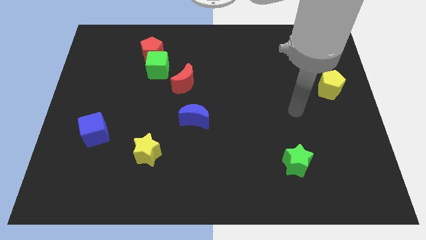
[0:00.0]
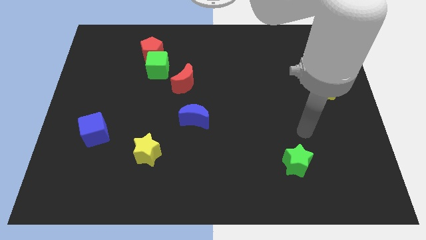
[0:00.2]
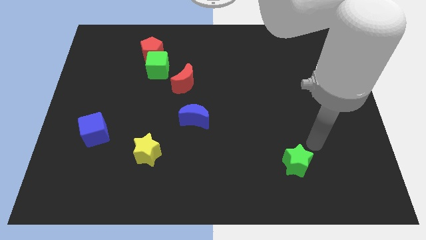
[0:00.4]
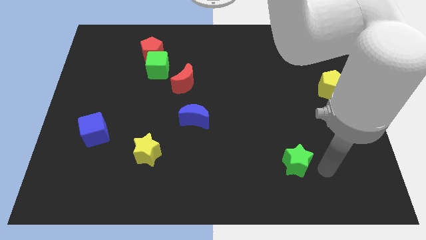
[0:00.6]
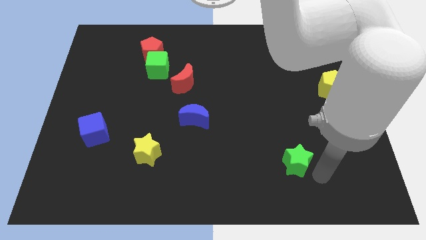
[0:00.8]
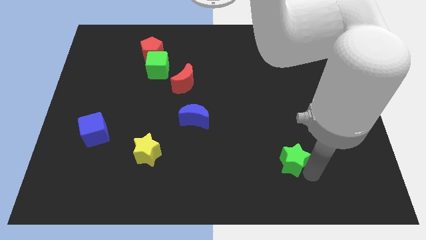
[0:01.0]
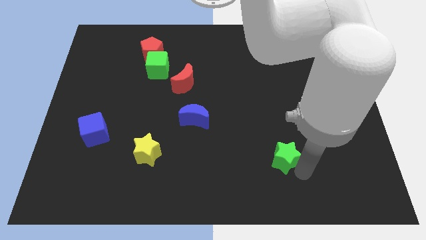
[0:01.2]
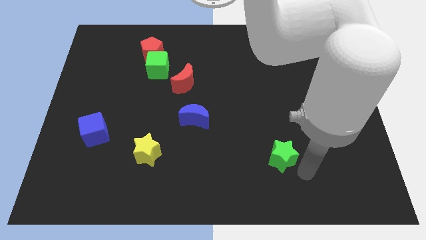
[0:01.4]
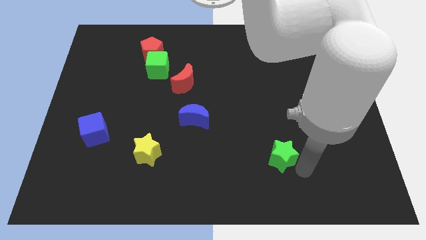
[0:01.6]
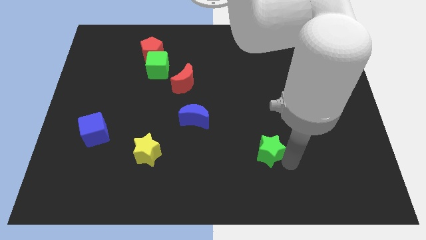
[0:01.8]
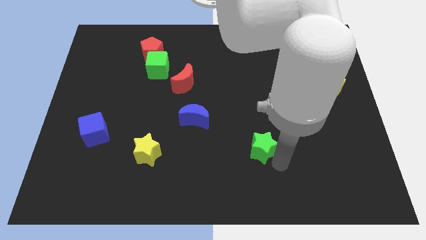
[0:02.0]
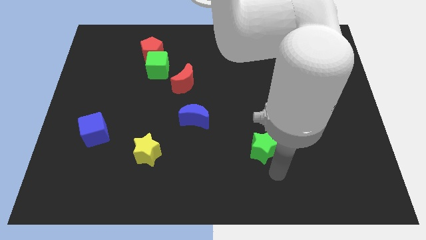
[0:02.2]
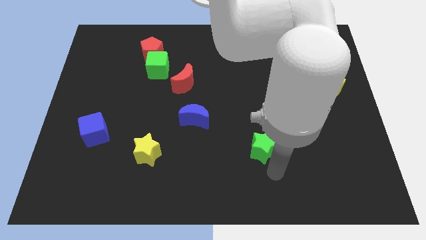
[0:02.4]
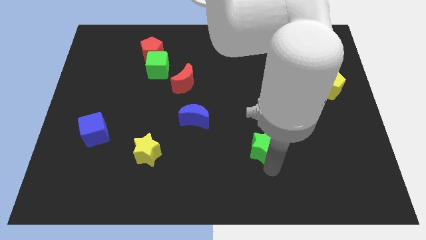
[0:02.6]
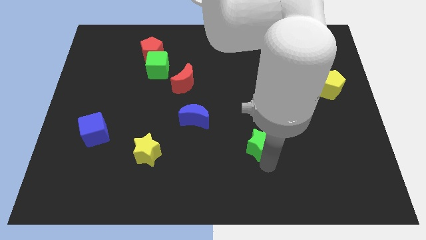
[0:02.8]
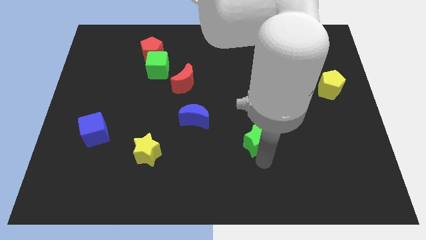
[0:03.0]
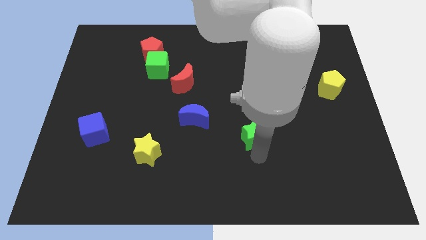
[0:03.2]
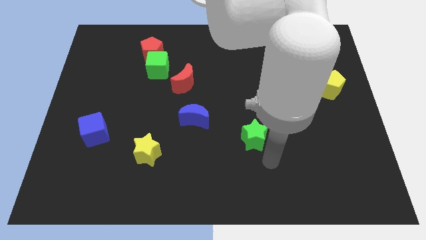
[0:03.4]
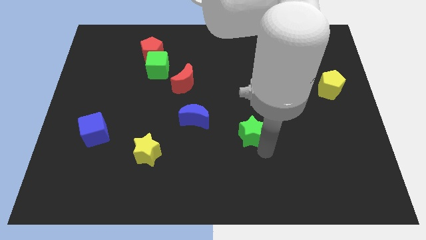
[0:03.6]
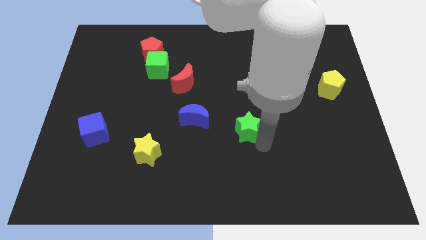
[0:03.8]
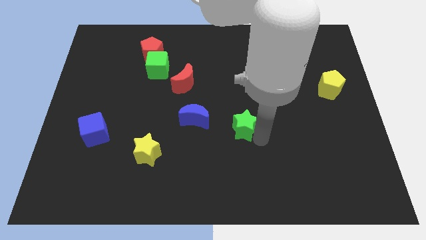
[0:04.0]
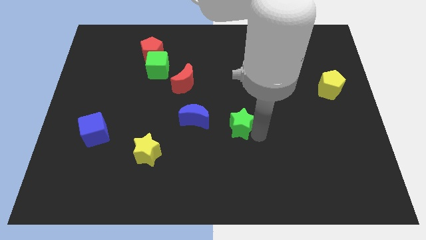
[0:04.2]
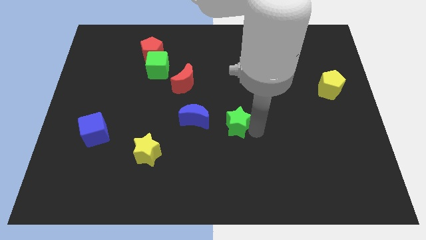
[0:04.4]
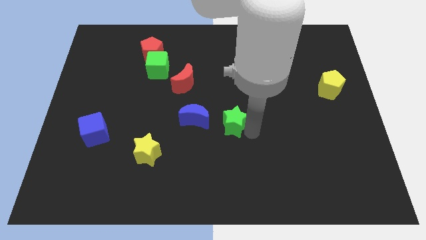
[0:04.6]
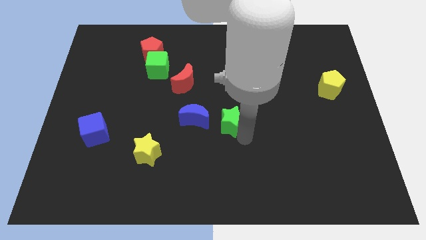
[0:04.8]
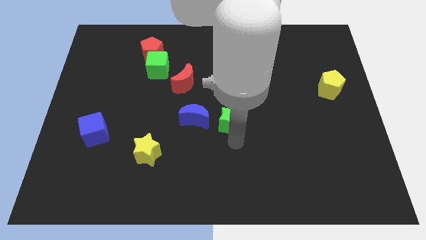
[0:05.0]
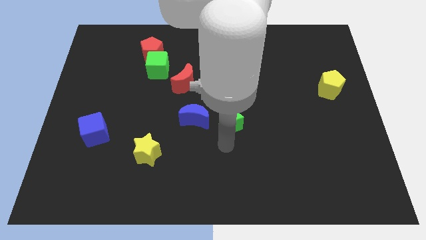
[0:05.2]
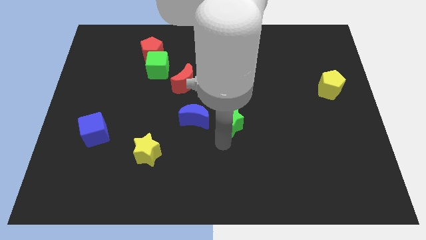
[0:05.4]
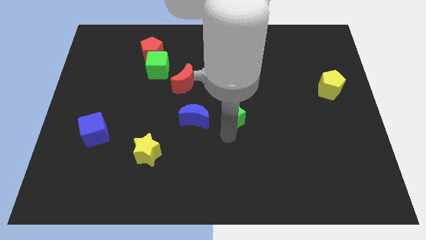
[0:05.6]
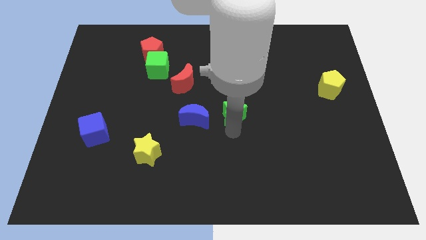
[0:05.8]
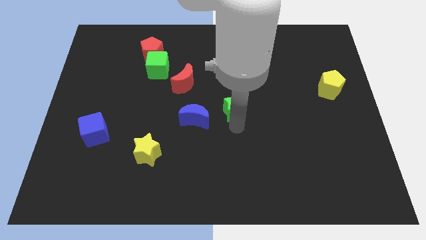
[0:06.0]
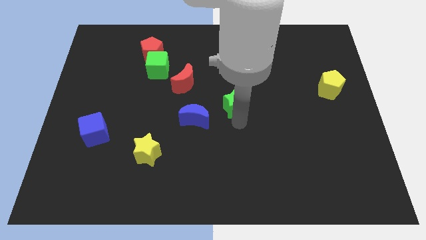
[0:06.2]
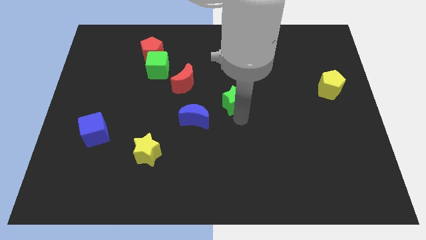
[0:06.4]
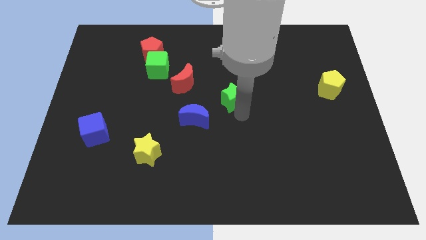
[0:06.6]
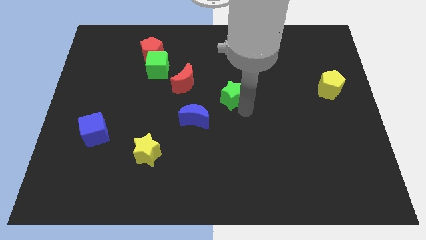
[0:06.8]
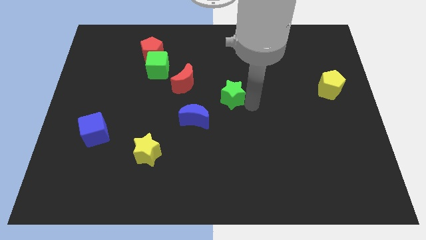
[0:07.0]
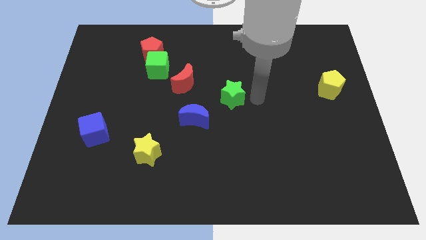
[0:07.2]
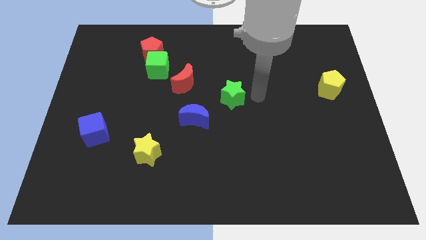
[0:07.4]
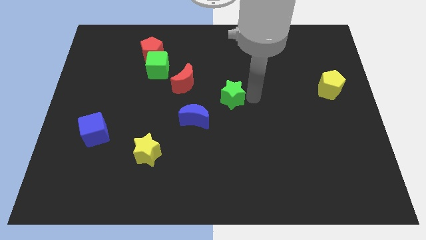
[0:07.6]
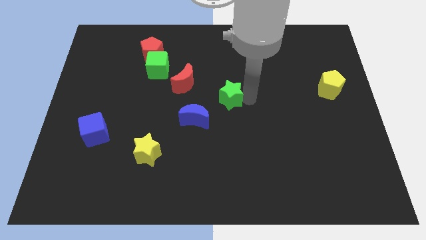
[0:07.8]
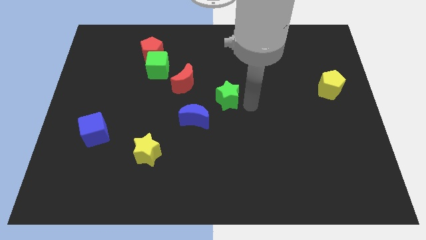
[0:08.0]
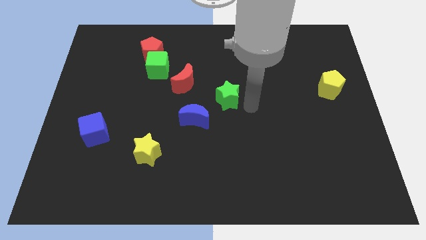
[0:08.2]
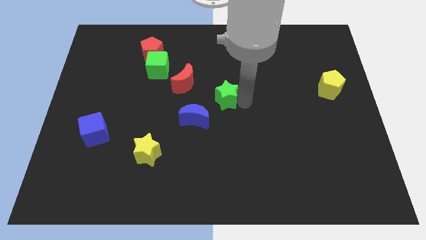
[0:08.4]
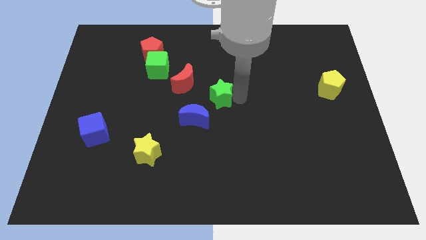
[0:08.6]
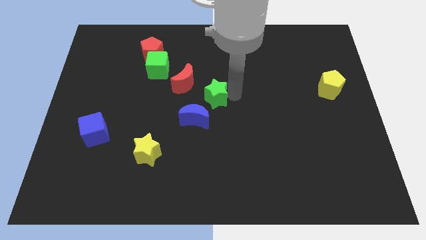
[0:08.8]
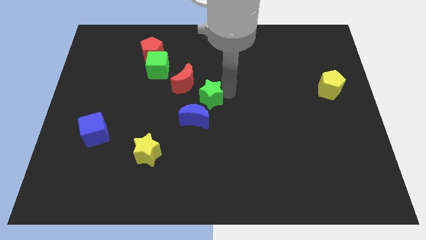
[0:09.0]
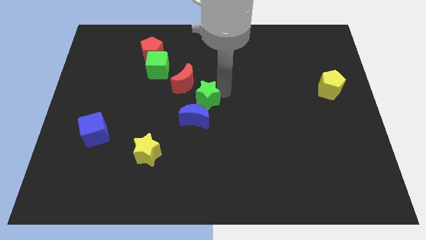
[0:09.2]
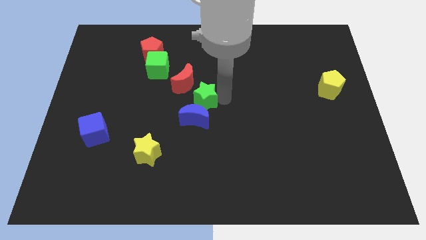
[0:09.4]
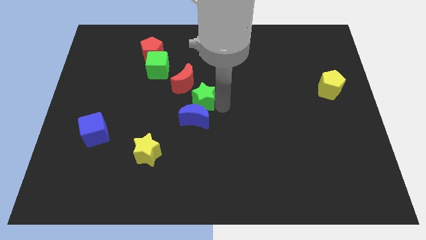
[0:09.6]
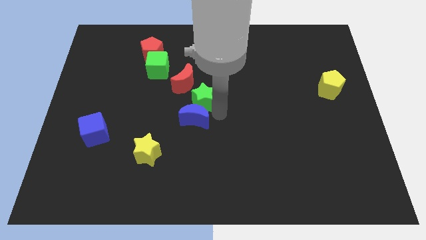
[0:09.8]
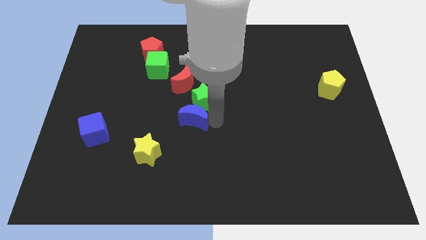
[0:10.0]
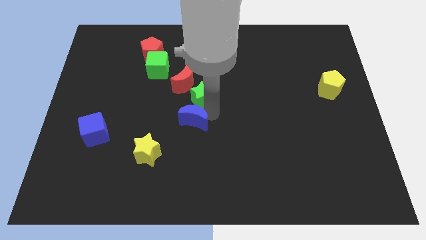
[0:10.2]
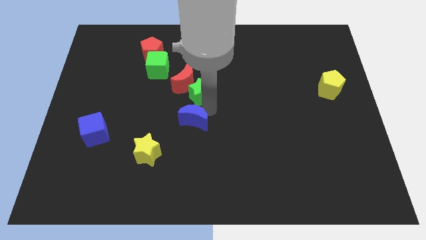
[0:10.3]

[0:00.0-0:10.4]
slide the green star towards the red moon

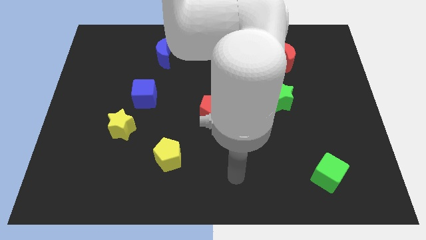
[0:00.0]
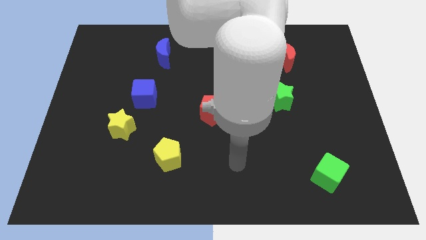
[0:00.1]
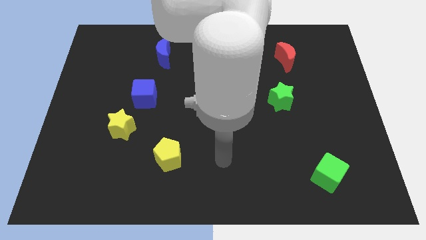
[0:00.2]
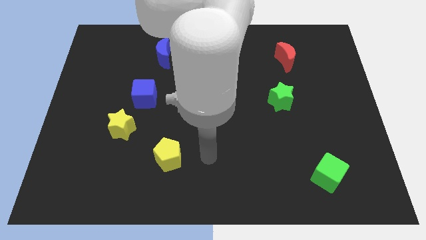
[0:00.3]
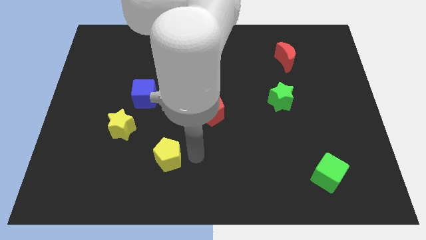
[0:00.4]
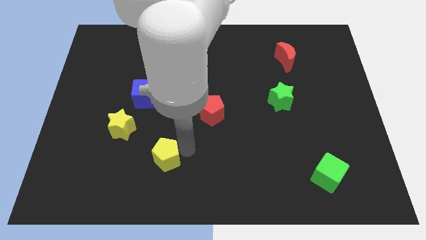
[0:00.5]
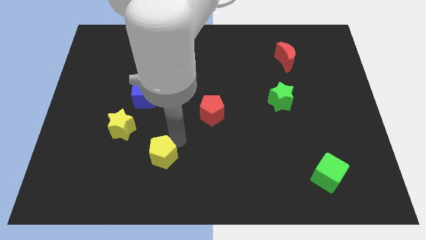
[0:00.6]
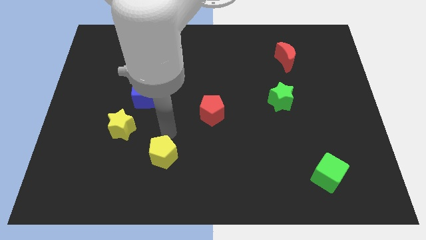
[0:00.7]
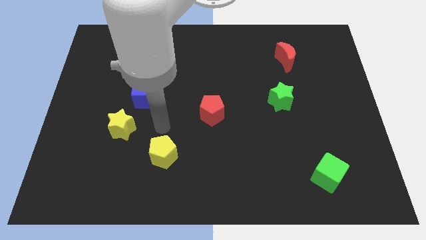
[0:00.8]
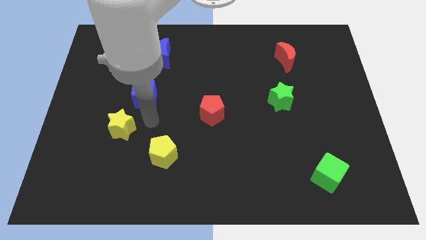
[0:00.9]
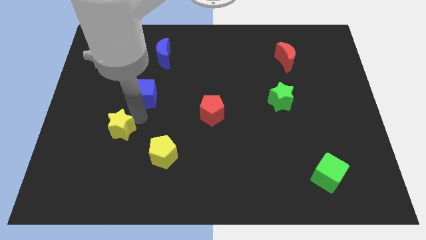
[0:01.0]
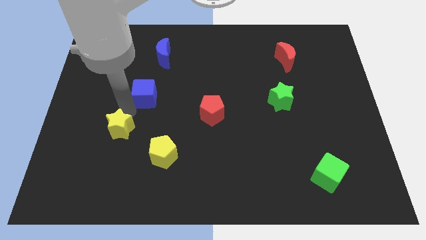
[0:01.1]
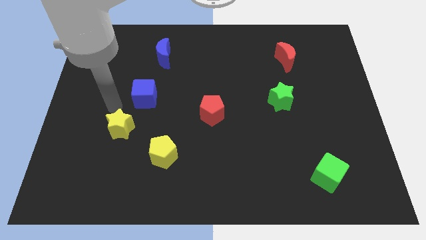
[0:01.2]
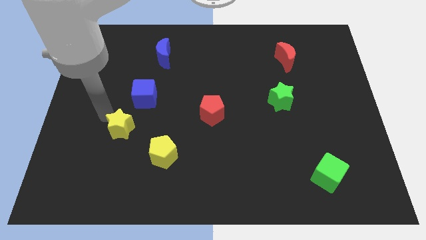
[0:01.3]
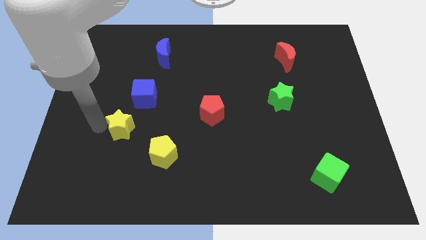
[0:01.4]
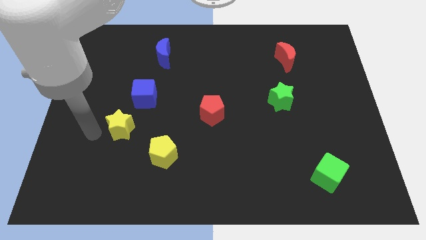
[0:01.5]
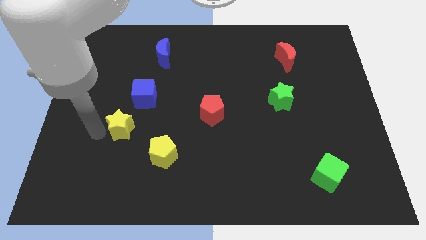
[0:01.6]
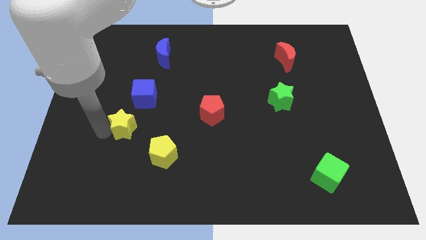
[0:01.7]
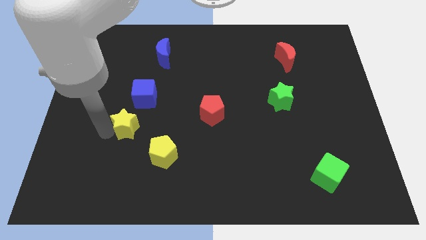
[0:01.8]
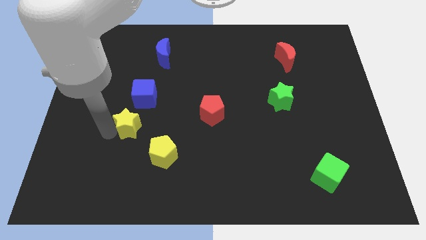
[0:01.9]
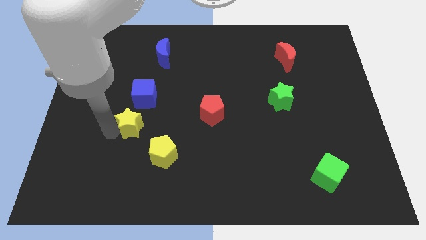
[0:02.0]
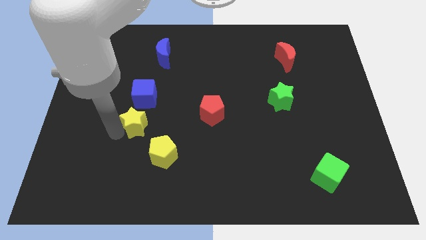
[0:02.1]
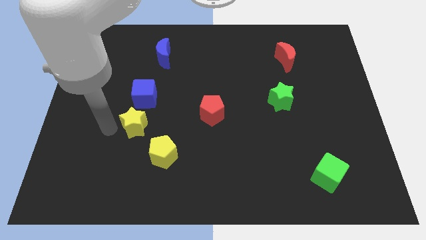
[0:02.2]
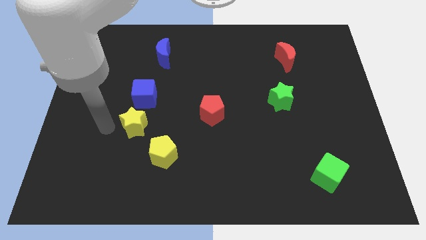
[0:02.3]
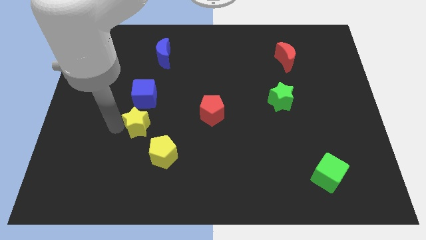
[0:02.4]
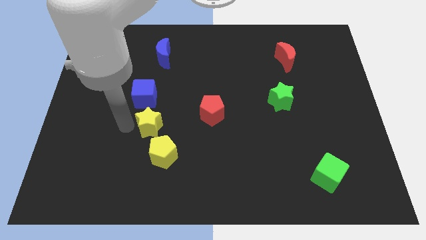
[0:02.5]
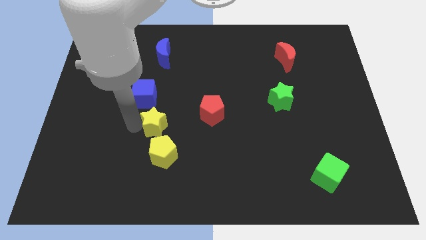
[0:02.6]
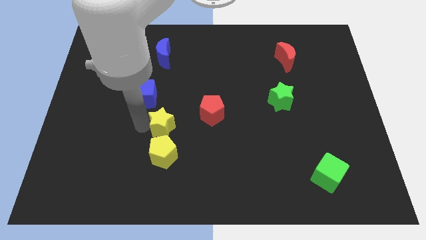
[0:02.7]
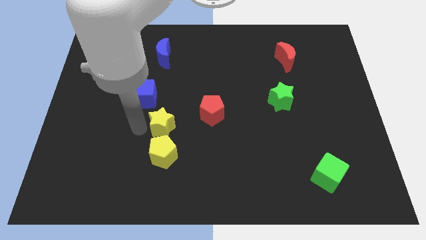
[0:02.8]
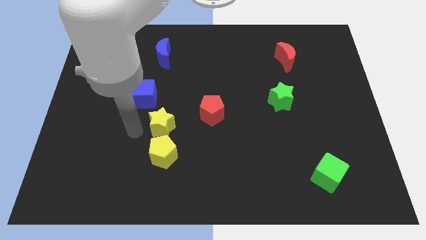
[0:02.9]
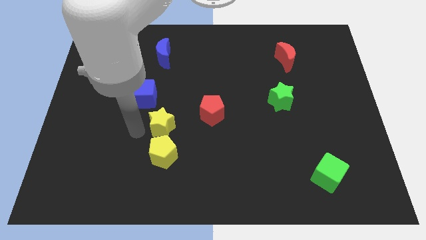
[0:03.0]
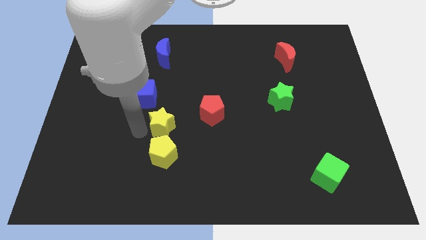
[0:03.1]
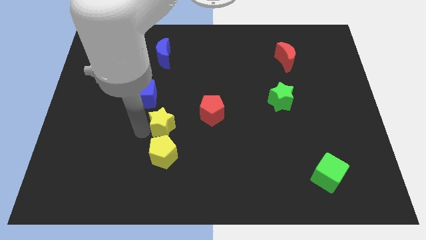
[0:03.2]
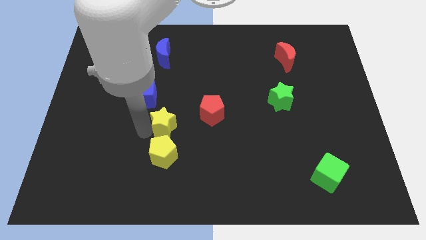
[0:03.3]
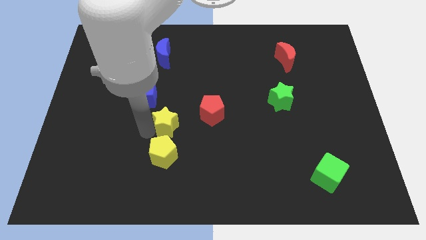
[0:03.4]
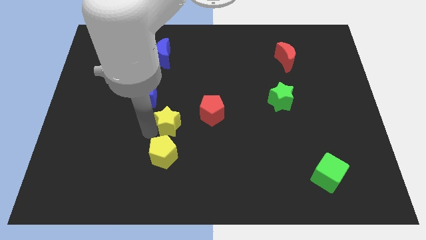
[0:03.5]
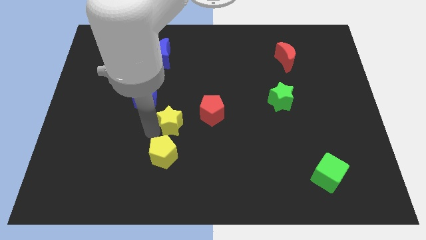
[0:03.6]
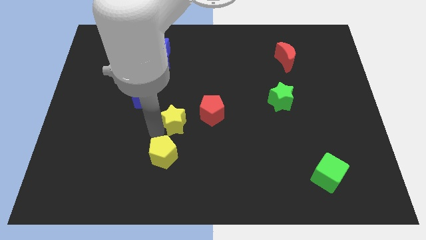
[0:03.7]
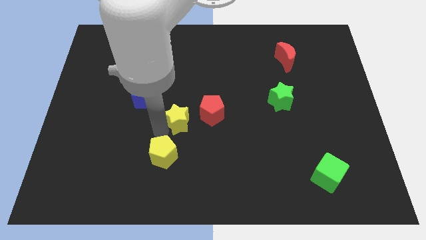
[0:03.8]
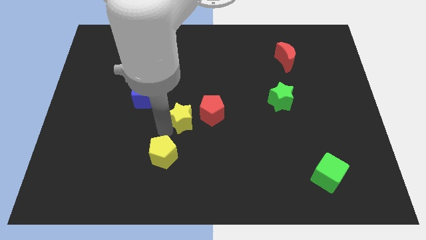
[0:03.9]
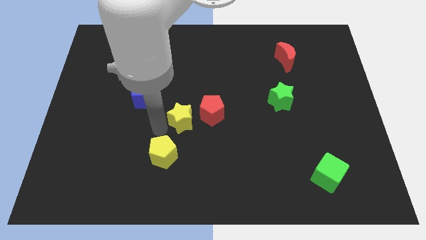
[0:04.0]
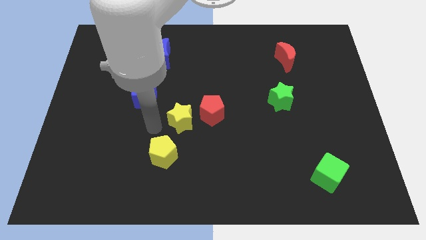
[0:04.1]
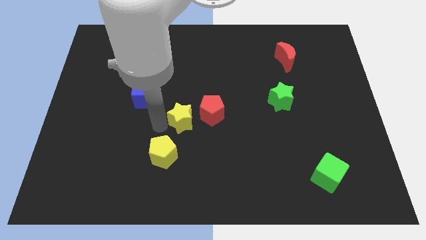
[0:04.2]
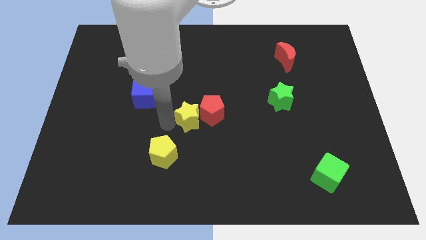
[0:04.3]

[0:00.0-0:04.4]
slide the yellow star next to the red pentagon
